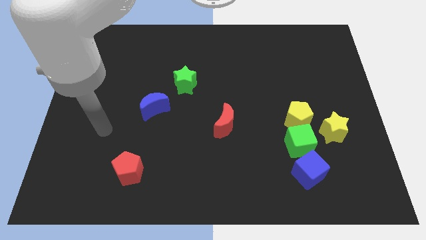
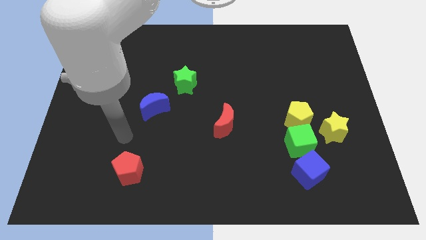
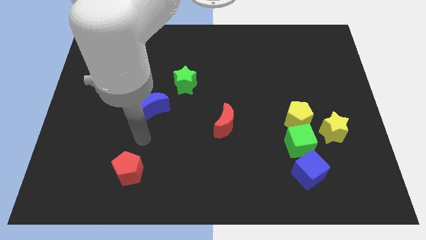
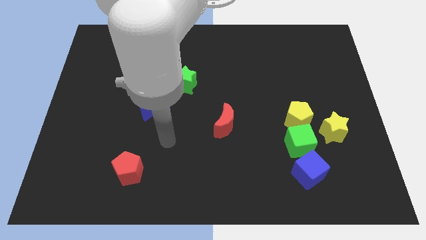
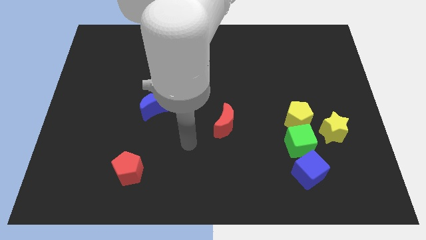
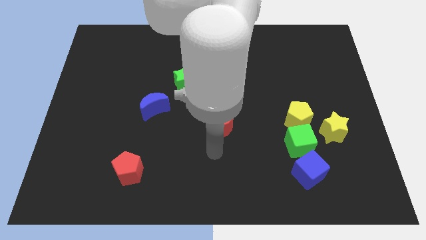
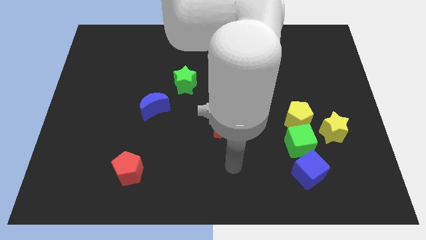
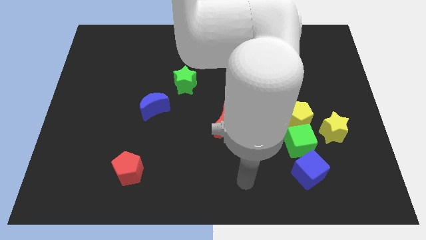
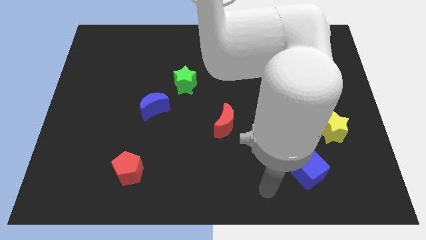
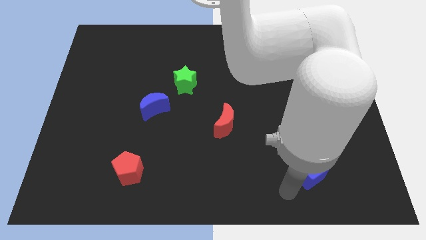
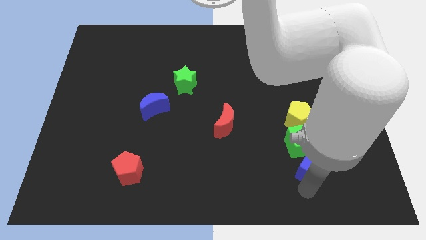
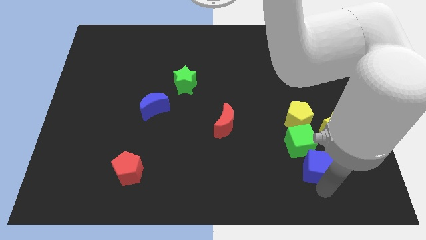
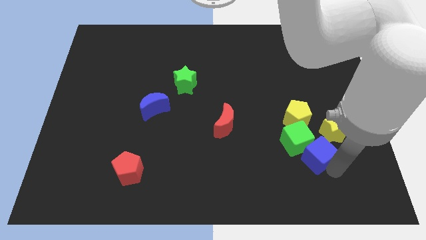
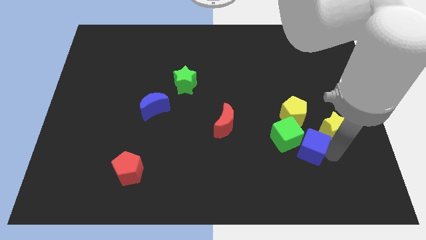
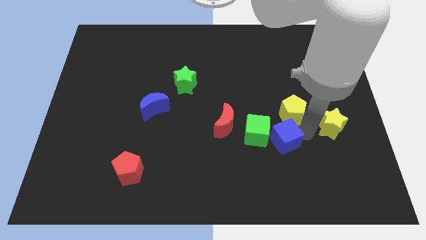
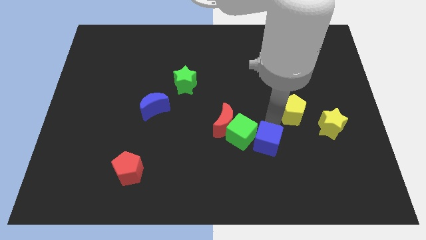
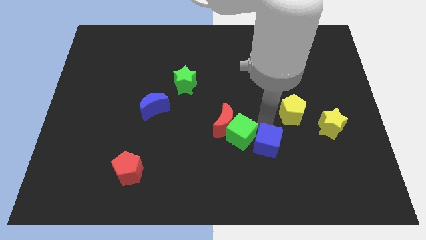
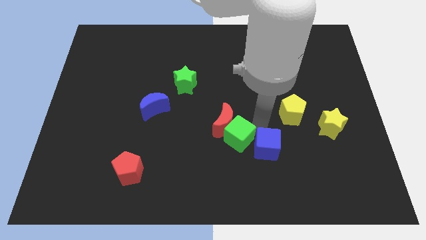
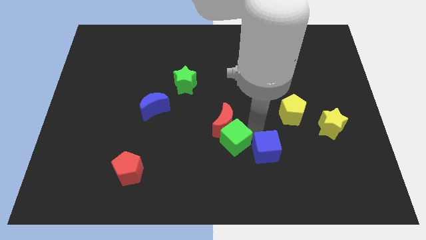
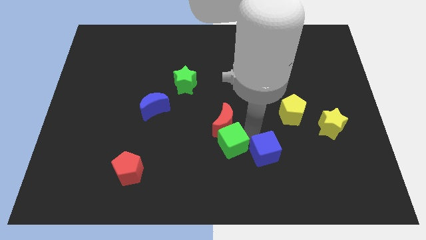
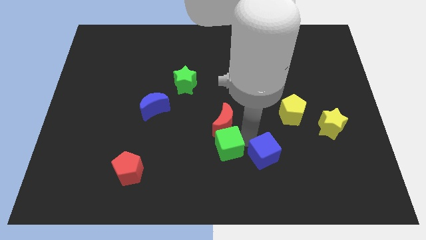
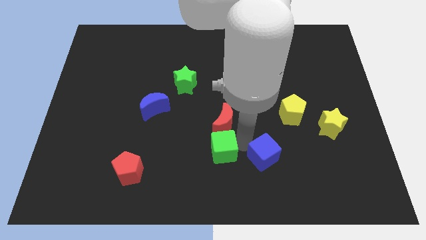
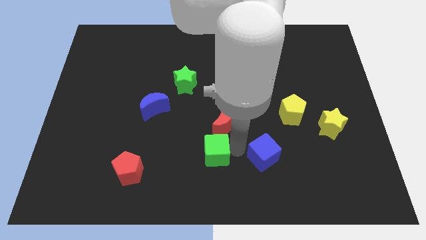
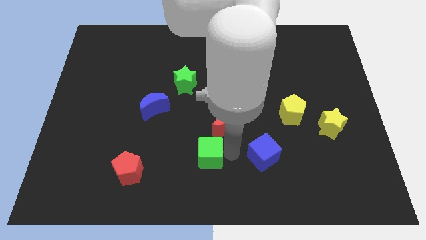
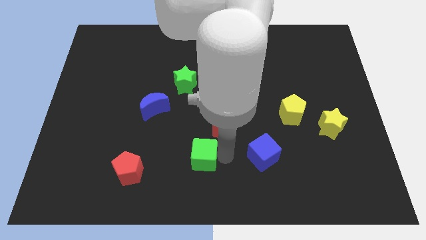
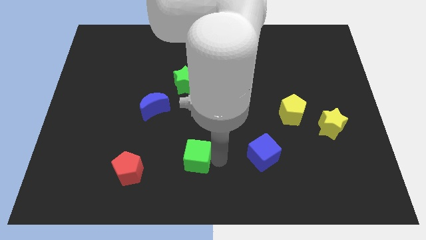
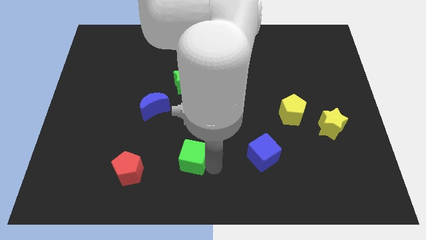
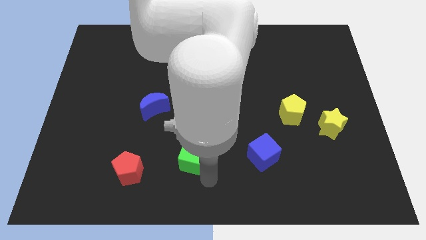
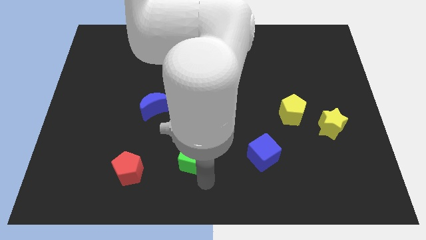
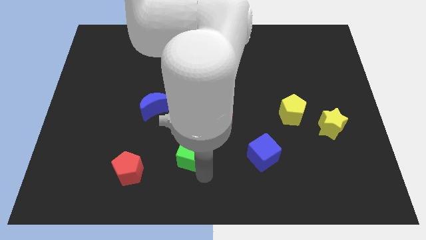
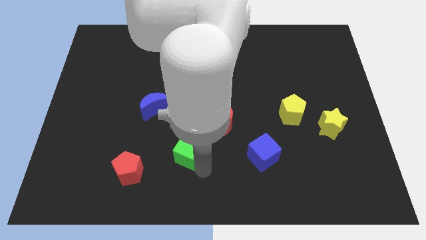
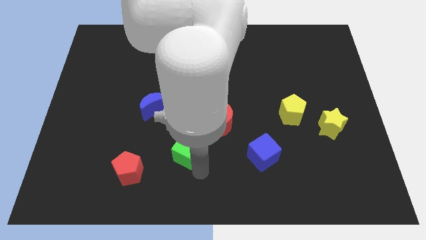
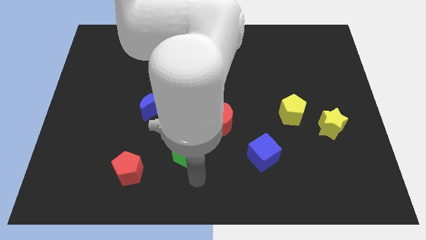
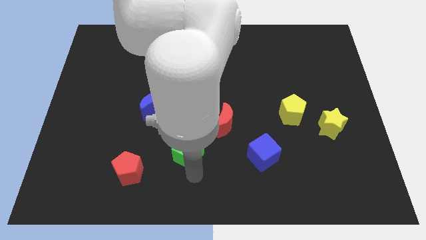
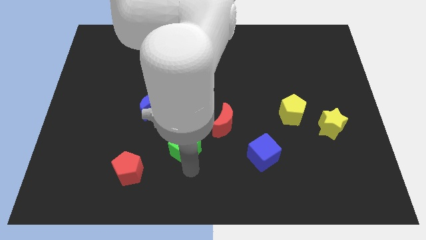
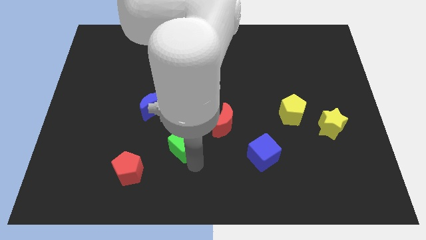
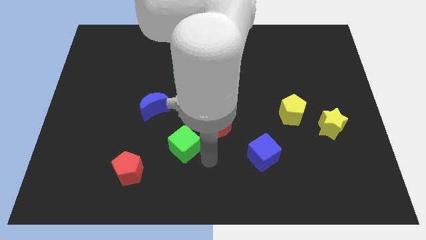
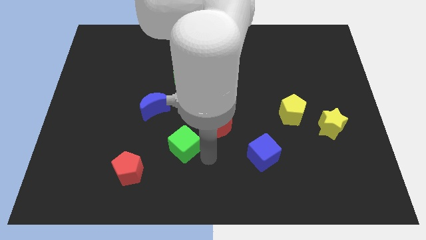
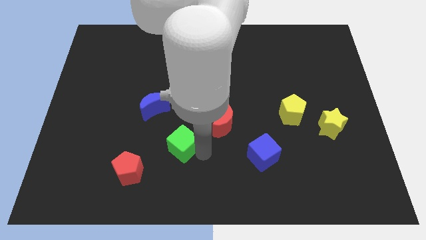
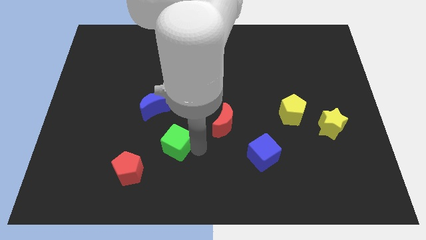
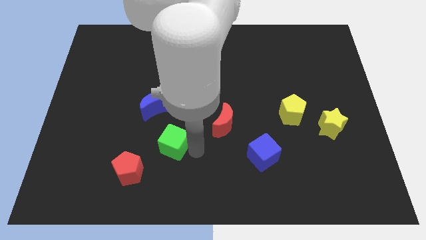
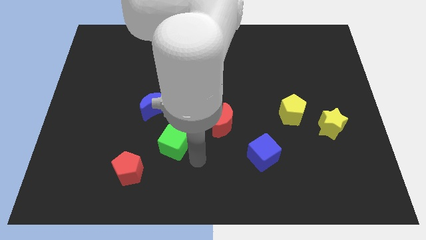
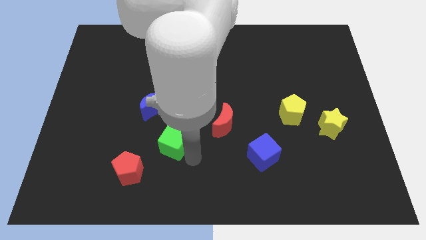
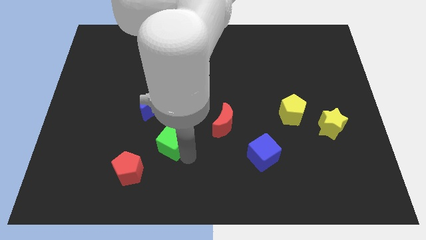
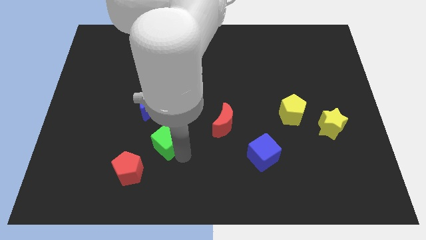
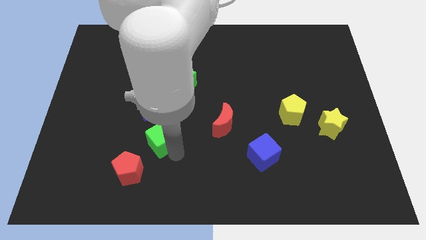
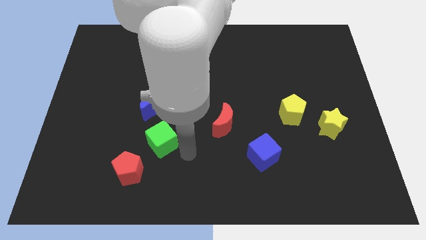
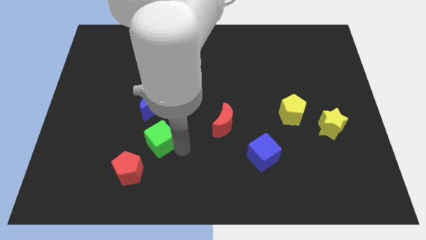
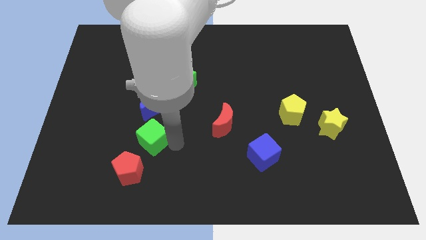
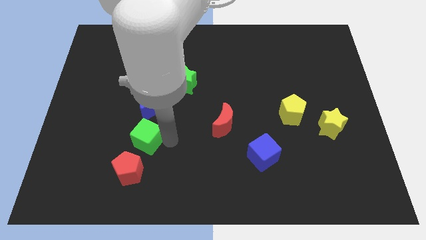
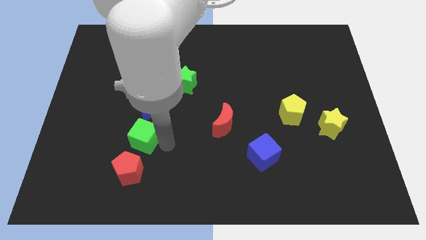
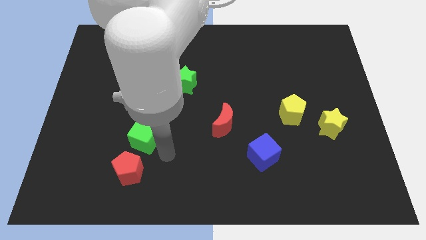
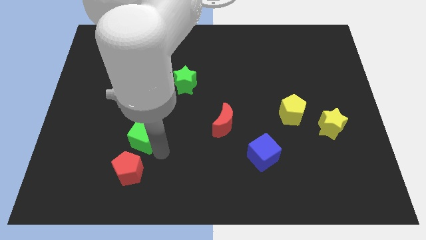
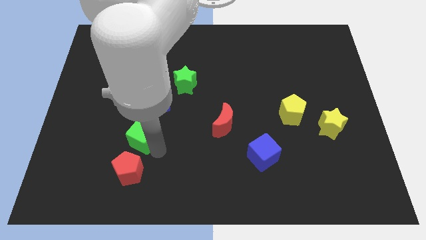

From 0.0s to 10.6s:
move the green cube to the bottom left side of the blue moon

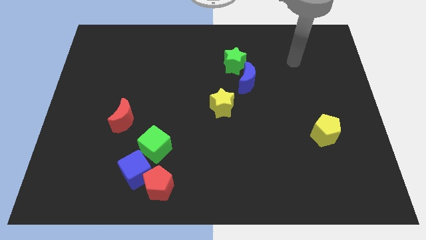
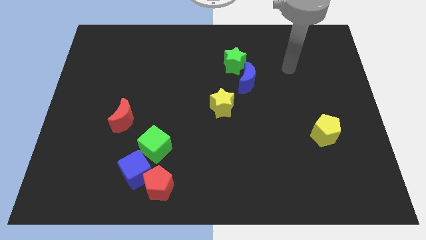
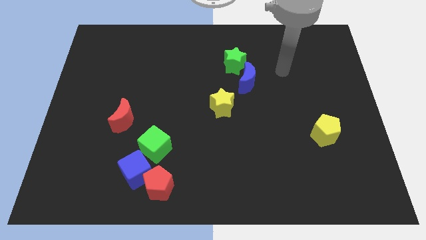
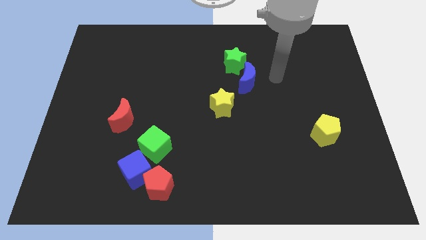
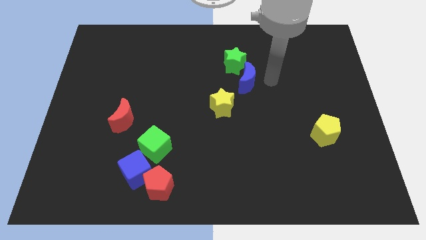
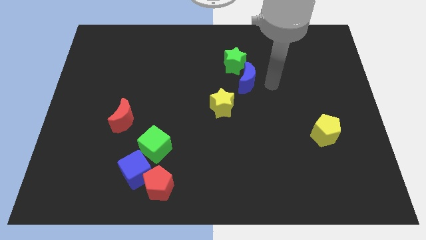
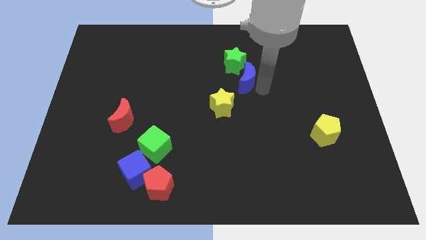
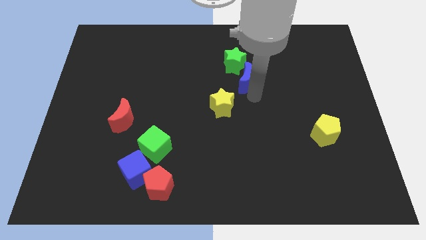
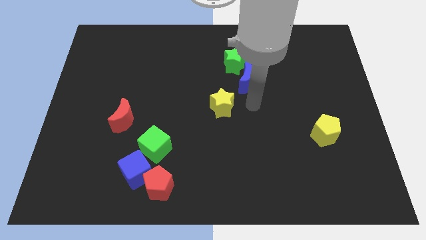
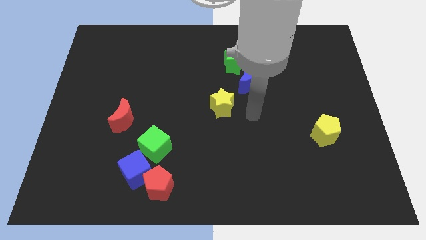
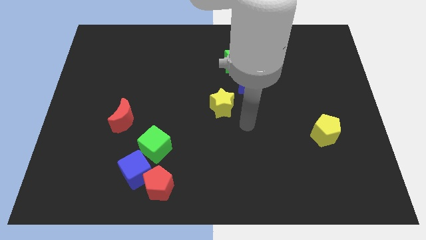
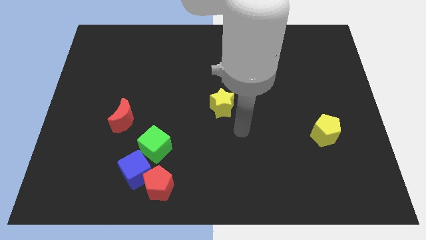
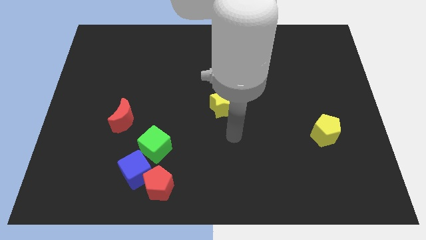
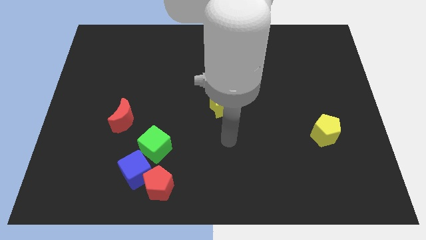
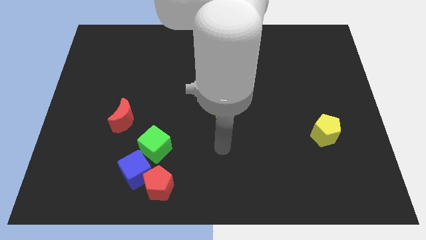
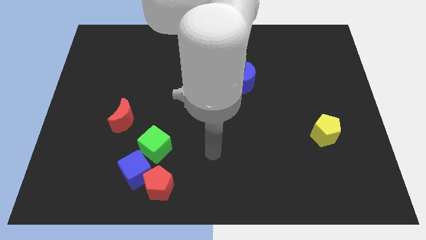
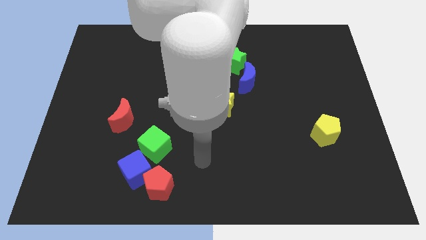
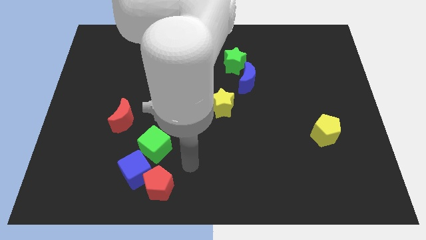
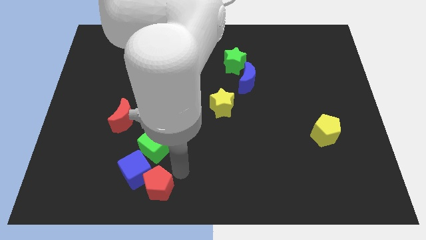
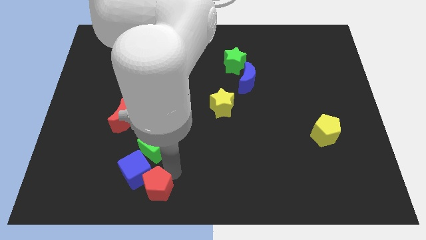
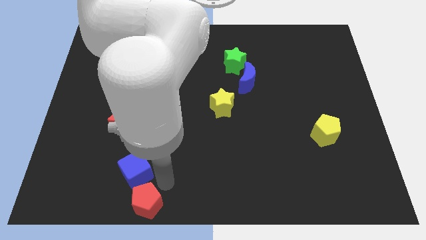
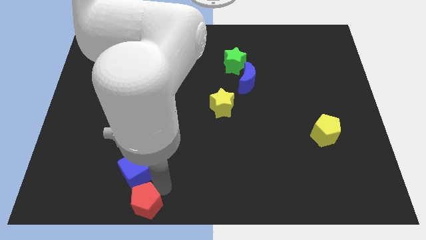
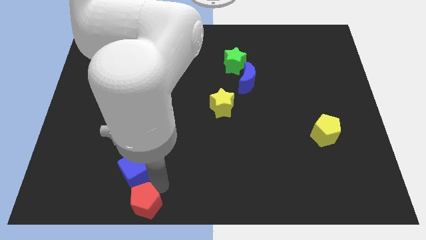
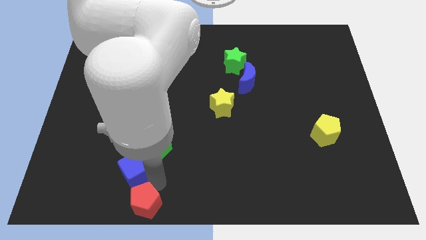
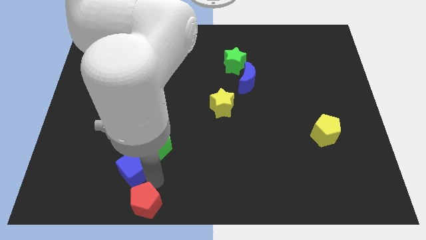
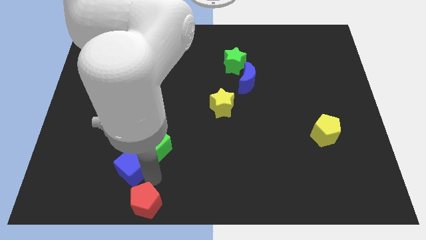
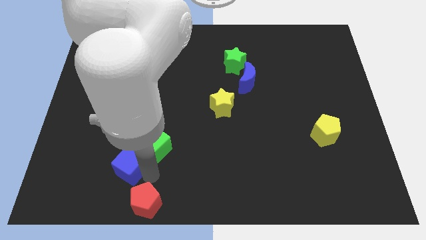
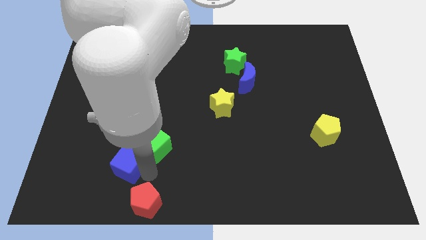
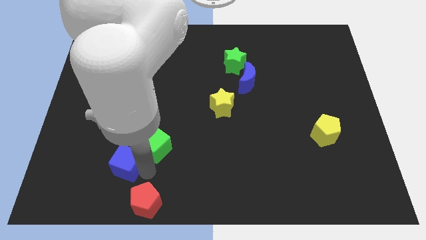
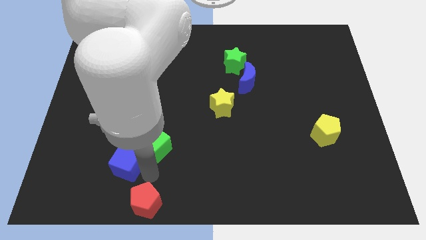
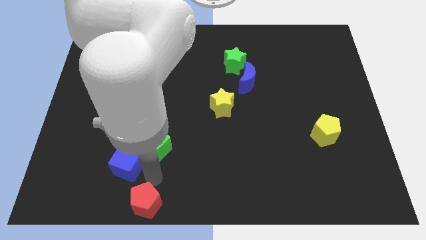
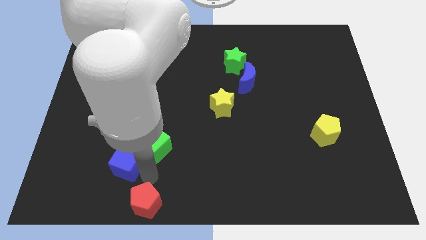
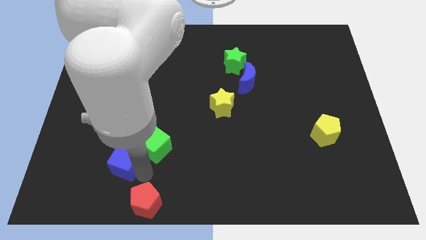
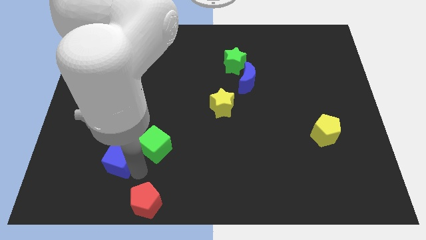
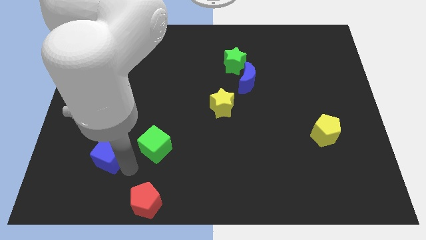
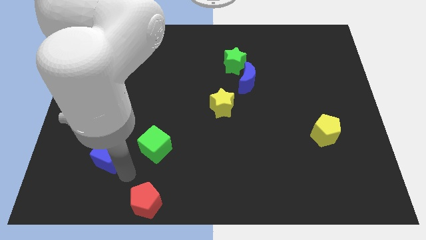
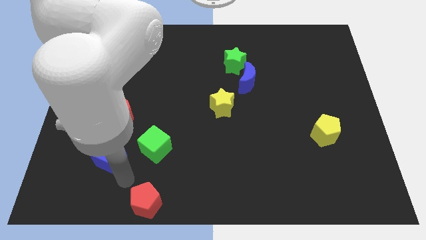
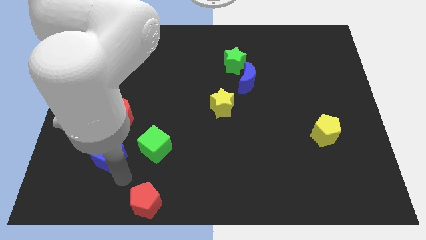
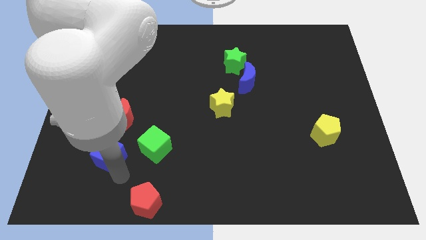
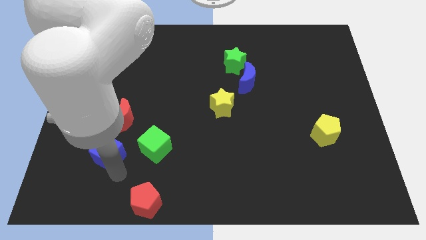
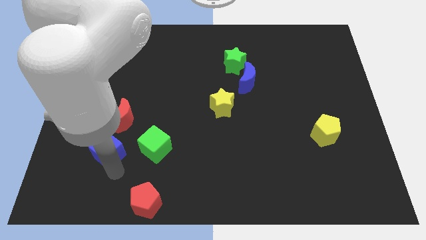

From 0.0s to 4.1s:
slide the blue cube to the bottom left of the red moon
